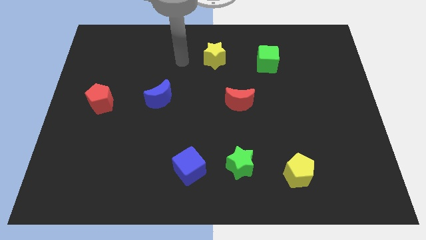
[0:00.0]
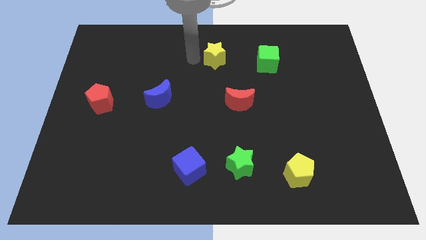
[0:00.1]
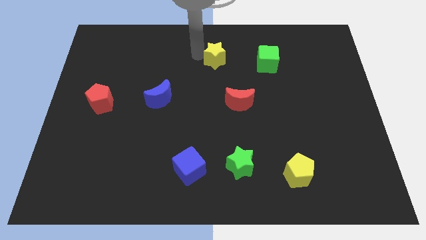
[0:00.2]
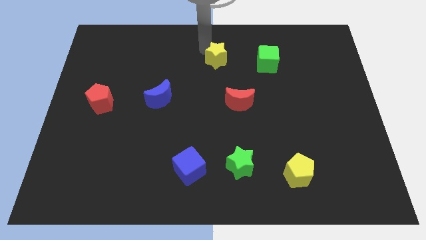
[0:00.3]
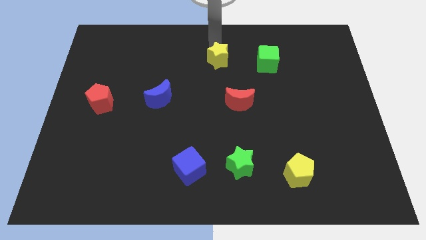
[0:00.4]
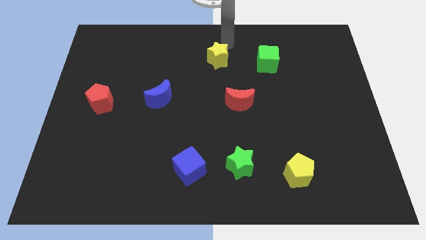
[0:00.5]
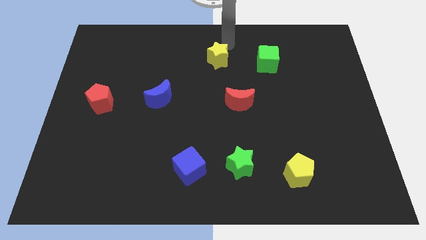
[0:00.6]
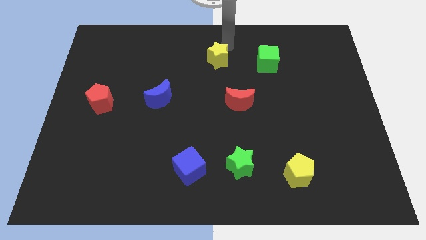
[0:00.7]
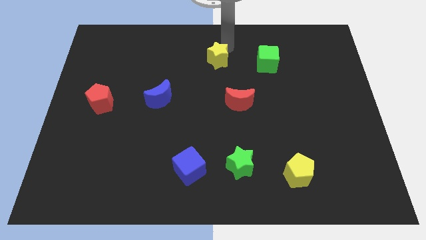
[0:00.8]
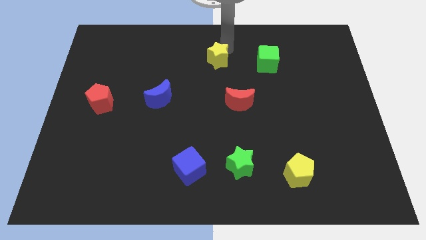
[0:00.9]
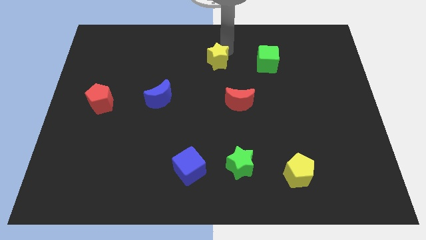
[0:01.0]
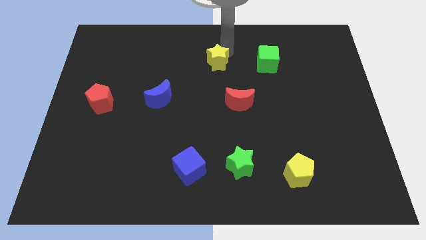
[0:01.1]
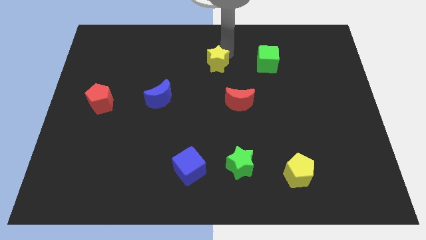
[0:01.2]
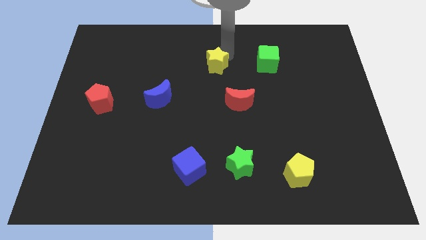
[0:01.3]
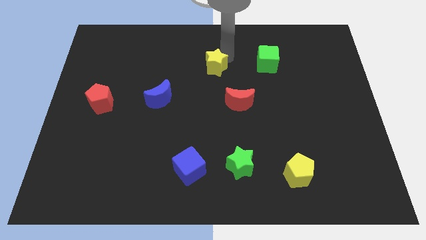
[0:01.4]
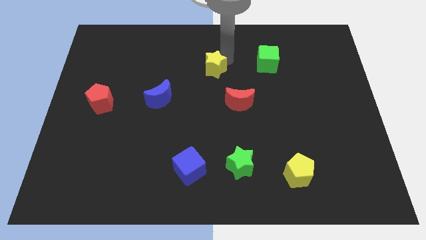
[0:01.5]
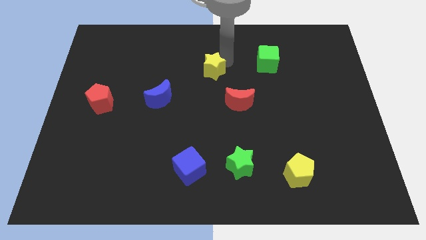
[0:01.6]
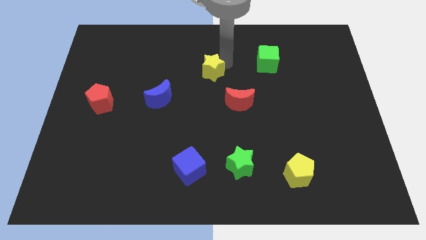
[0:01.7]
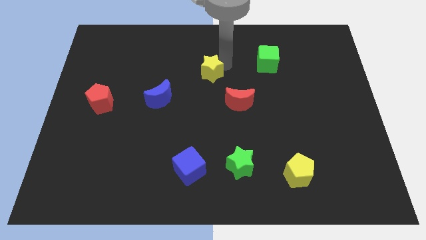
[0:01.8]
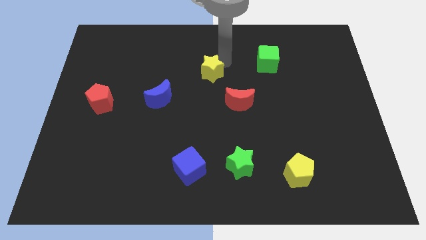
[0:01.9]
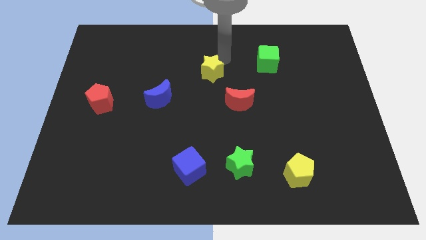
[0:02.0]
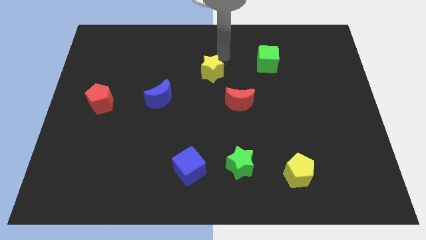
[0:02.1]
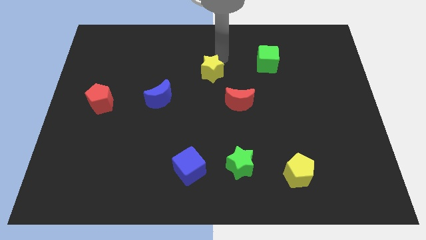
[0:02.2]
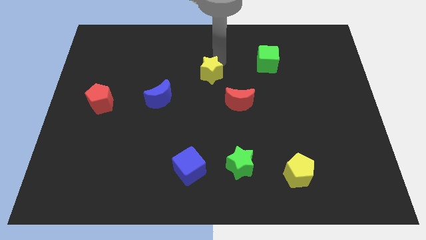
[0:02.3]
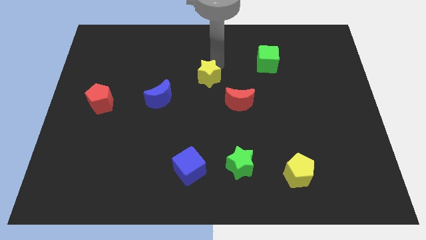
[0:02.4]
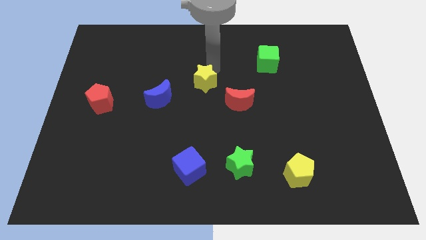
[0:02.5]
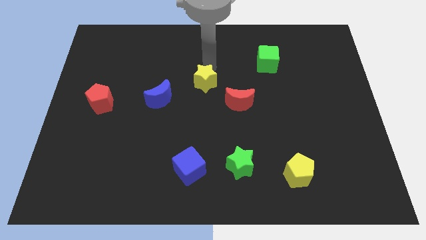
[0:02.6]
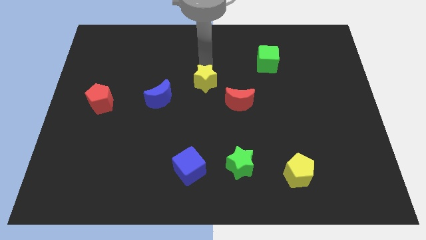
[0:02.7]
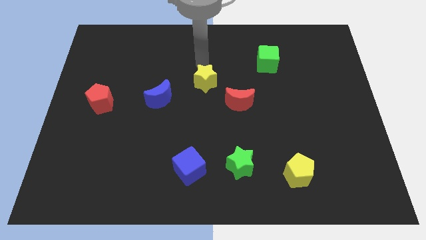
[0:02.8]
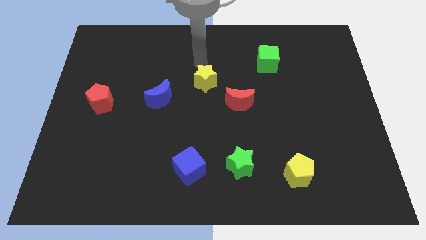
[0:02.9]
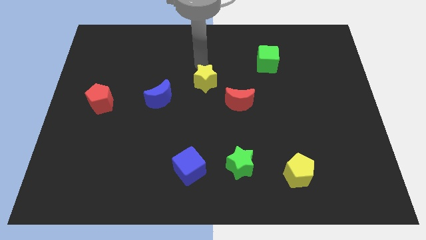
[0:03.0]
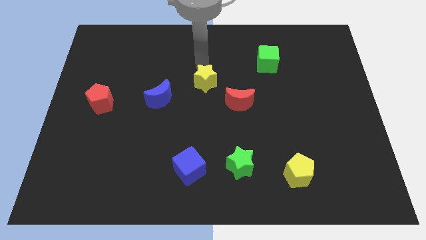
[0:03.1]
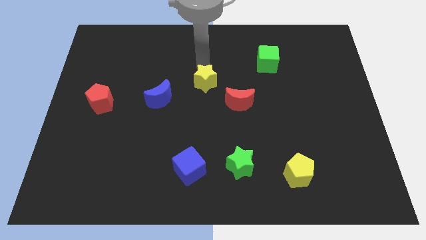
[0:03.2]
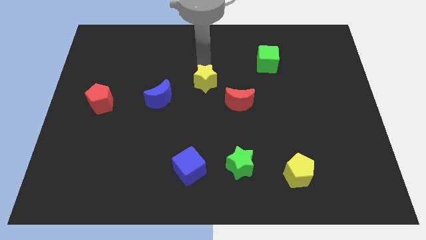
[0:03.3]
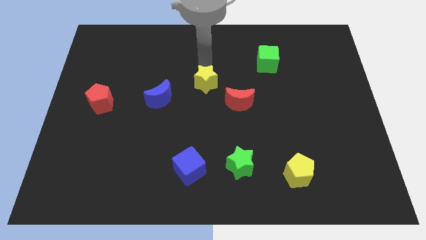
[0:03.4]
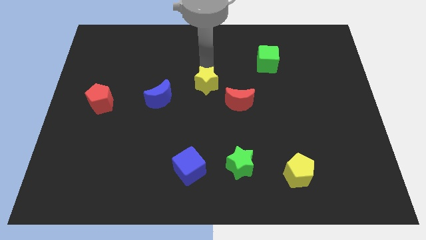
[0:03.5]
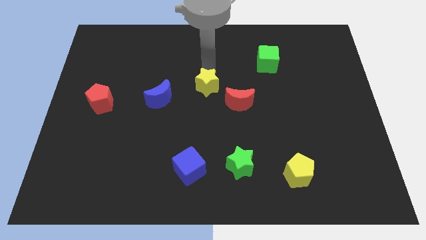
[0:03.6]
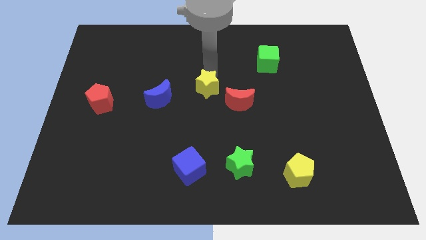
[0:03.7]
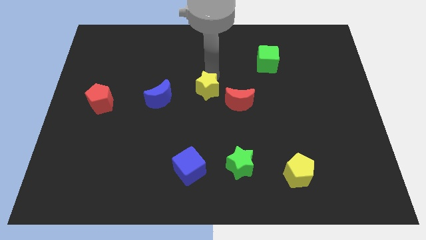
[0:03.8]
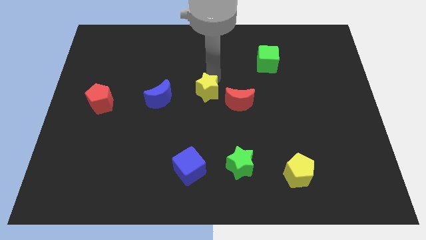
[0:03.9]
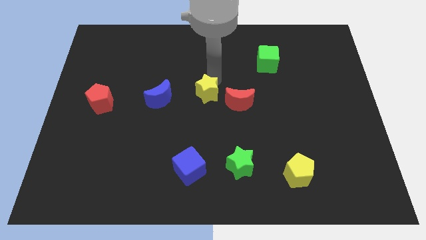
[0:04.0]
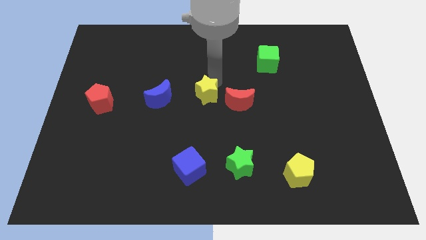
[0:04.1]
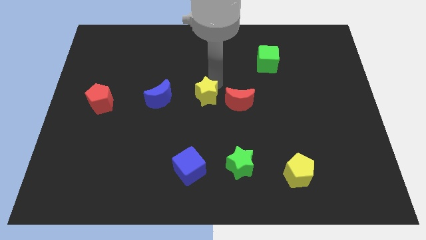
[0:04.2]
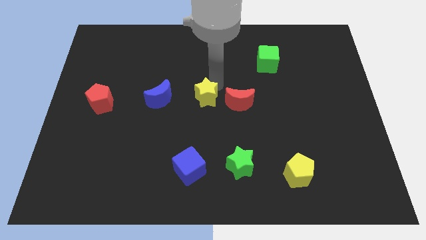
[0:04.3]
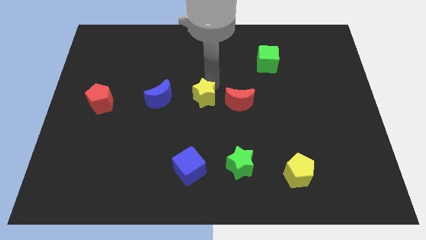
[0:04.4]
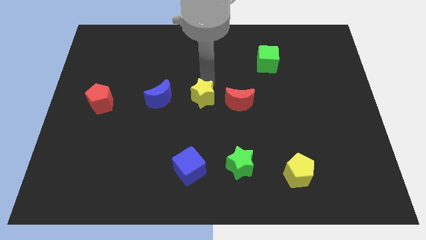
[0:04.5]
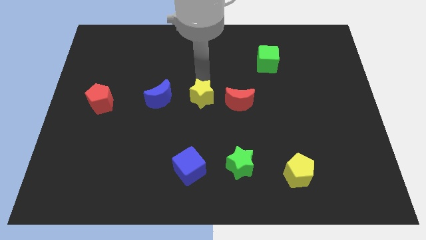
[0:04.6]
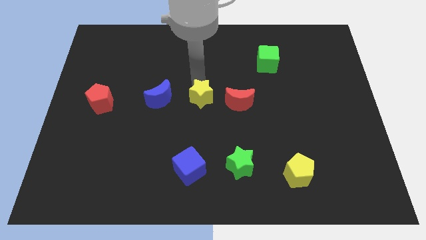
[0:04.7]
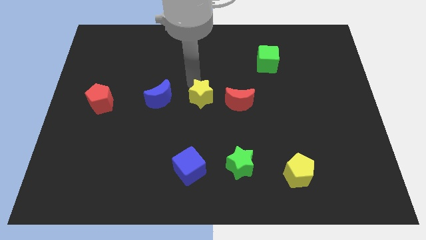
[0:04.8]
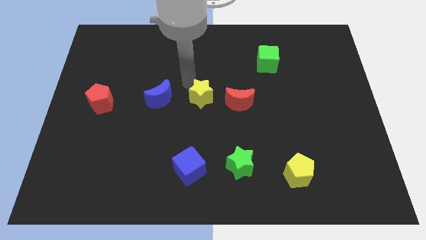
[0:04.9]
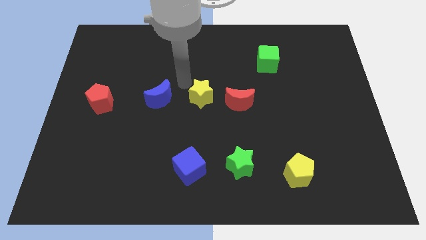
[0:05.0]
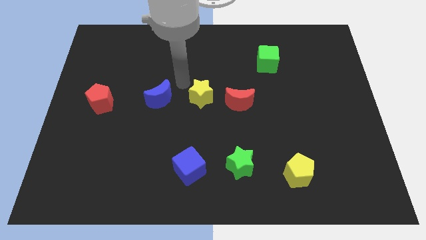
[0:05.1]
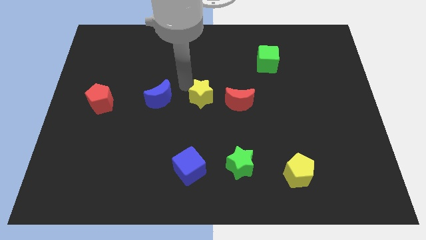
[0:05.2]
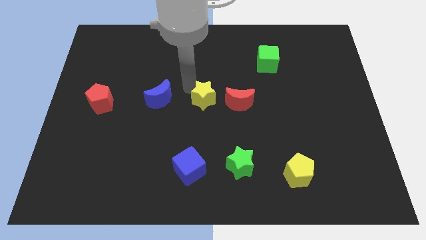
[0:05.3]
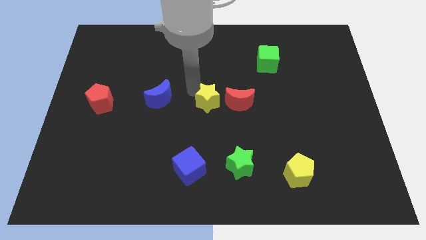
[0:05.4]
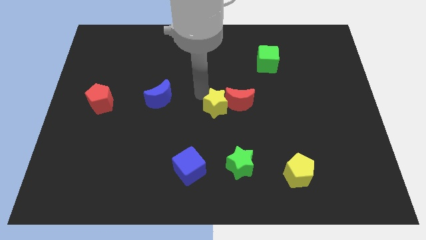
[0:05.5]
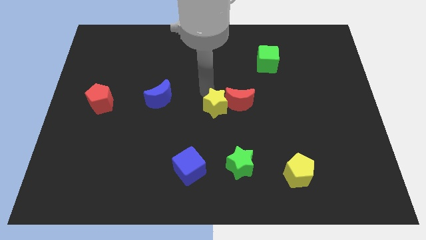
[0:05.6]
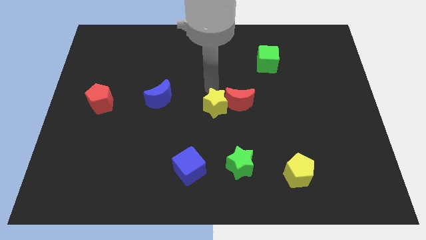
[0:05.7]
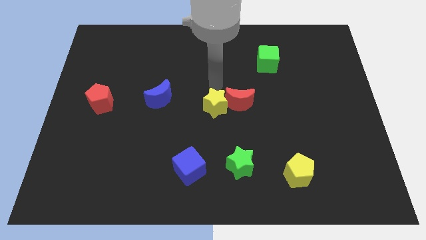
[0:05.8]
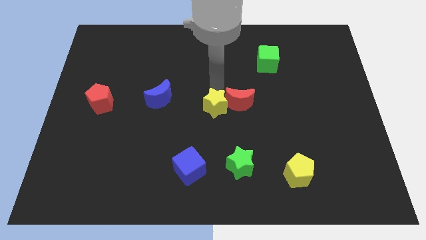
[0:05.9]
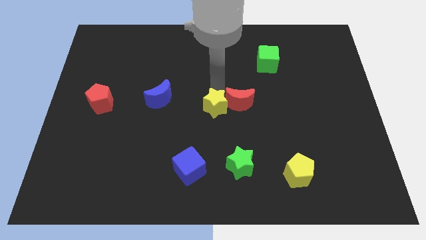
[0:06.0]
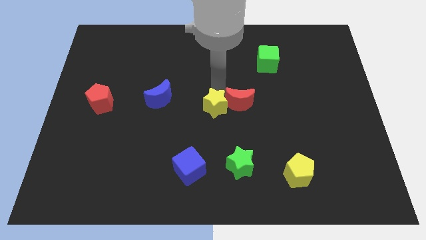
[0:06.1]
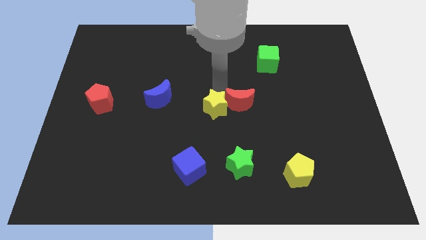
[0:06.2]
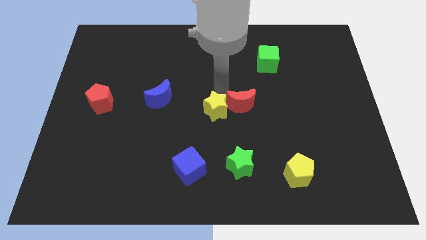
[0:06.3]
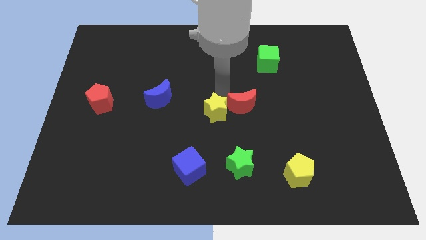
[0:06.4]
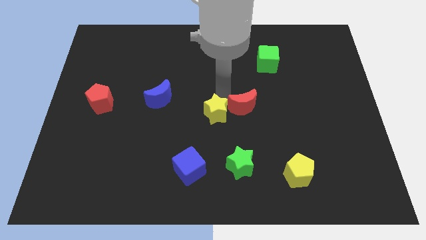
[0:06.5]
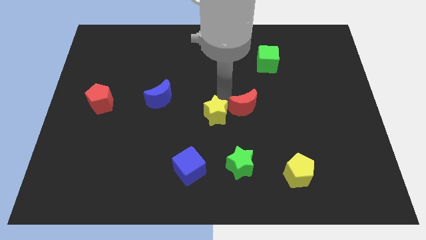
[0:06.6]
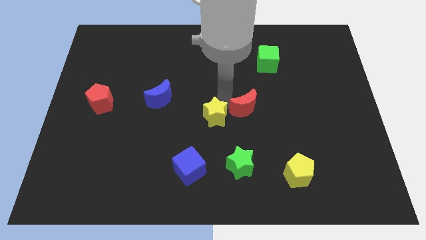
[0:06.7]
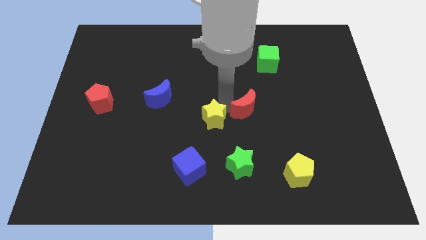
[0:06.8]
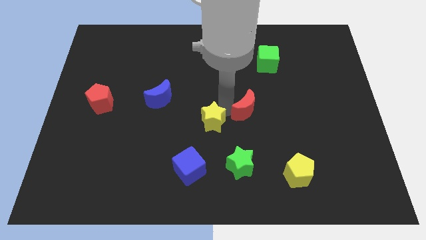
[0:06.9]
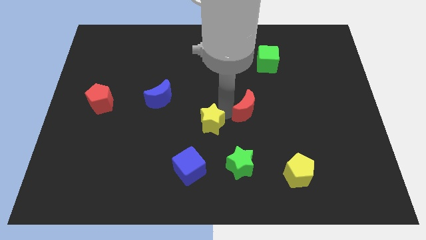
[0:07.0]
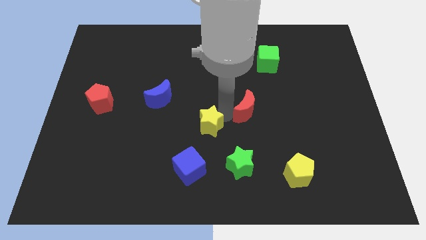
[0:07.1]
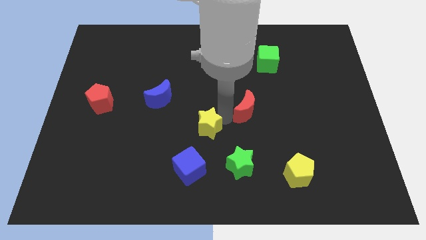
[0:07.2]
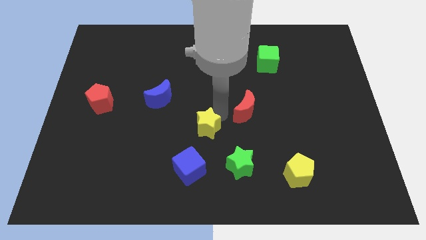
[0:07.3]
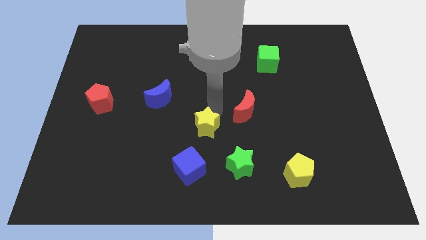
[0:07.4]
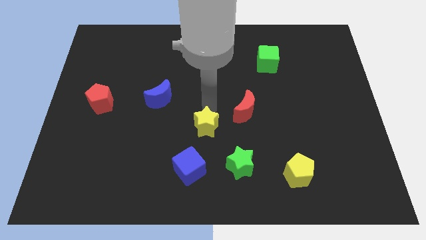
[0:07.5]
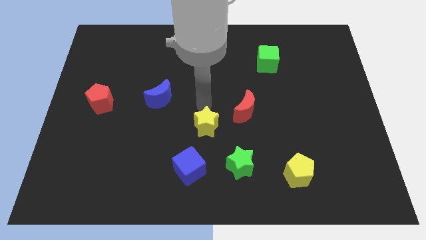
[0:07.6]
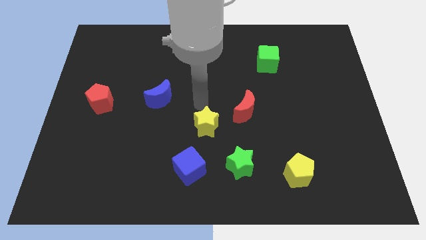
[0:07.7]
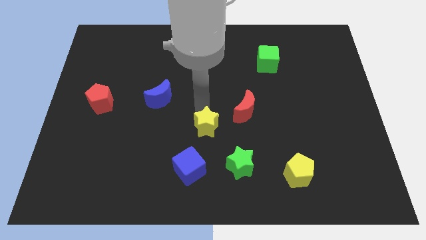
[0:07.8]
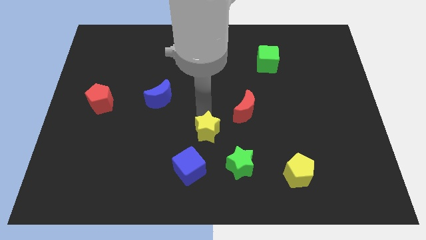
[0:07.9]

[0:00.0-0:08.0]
put the yellow star to the top right of the blue cube
